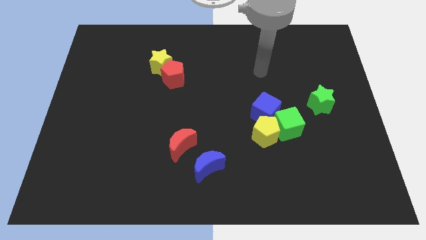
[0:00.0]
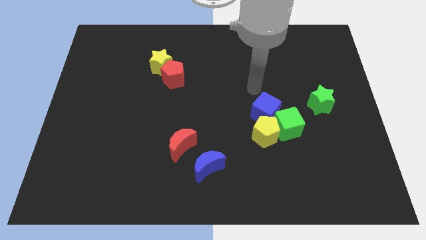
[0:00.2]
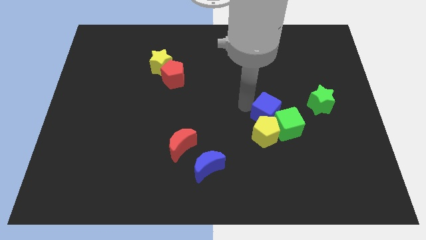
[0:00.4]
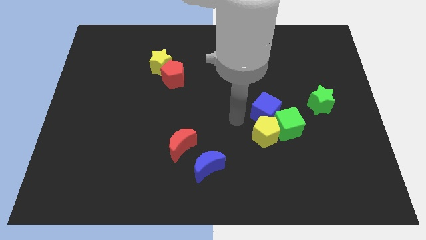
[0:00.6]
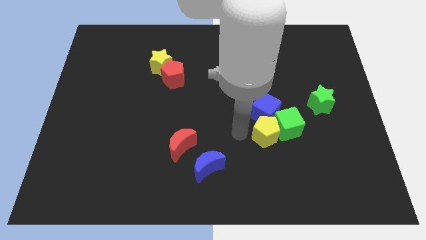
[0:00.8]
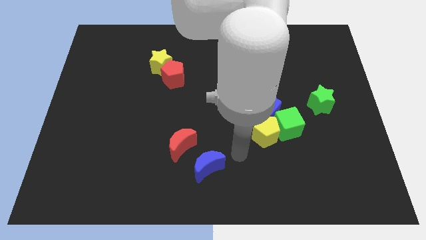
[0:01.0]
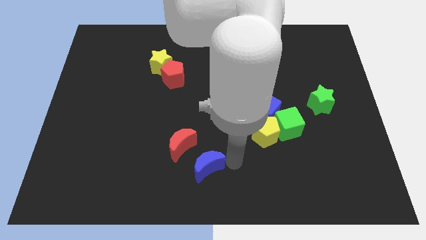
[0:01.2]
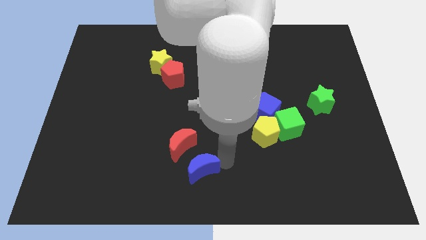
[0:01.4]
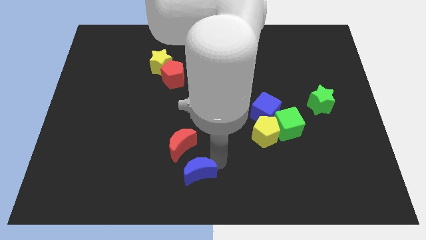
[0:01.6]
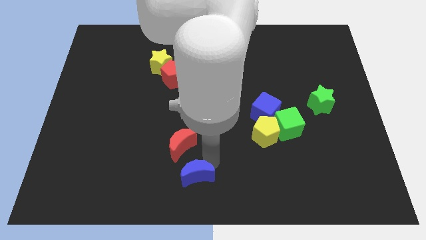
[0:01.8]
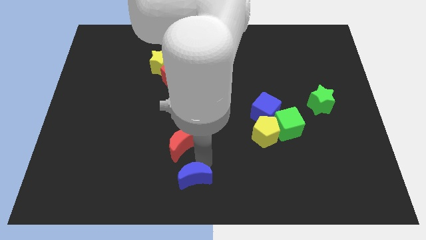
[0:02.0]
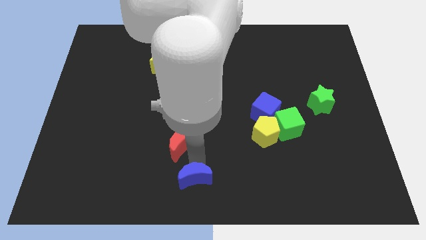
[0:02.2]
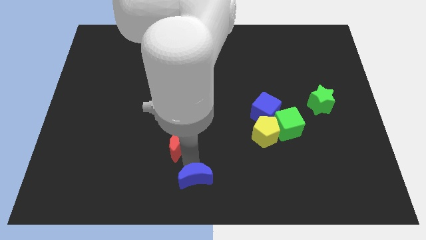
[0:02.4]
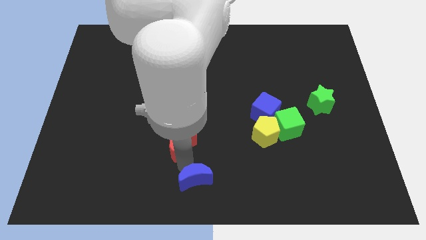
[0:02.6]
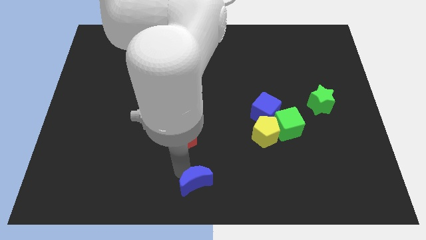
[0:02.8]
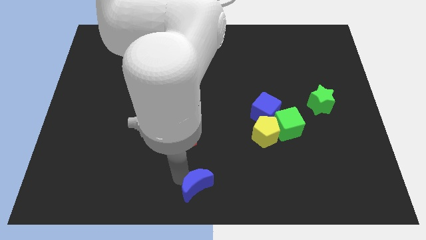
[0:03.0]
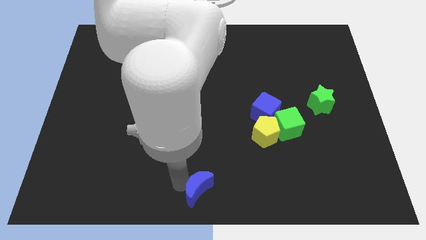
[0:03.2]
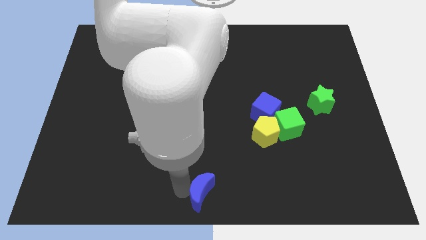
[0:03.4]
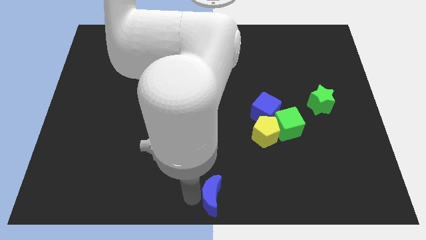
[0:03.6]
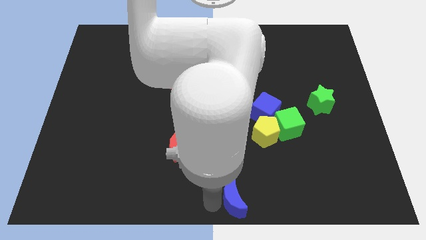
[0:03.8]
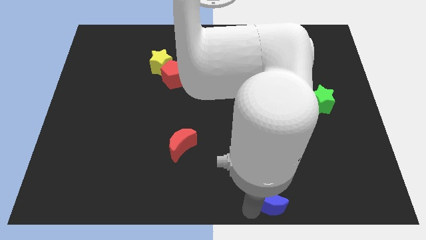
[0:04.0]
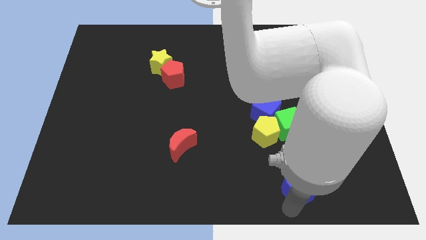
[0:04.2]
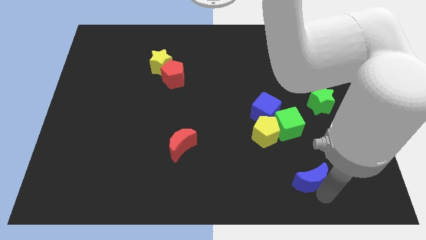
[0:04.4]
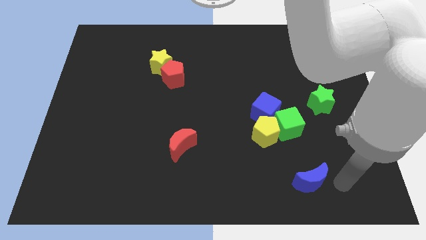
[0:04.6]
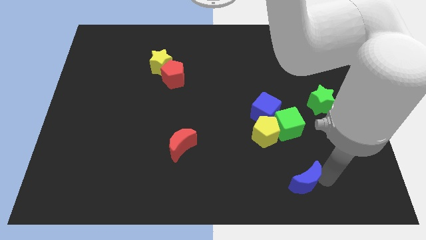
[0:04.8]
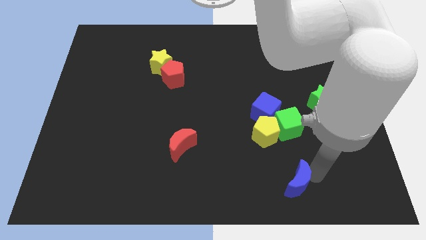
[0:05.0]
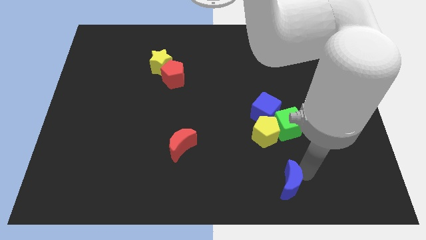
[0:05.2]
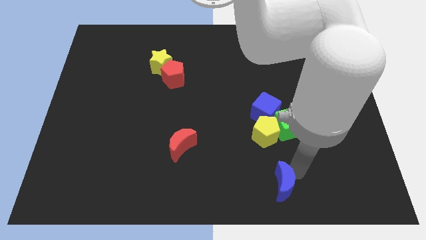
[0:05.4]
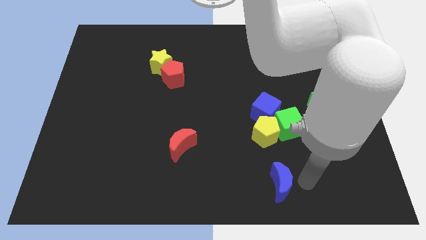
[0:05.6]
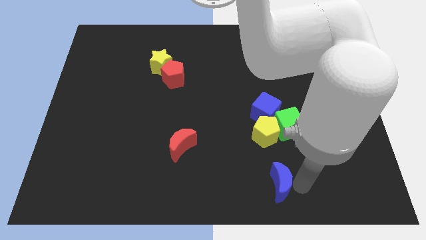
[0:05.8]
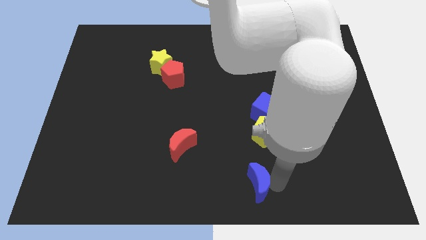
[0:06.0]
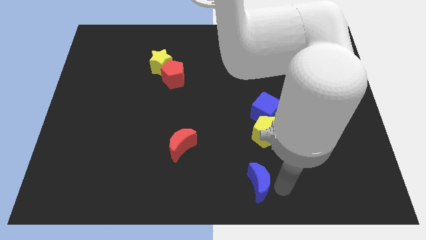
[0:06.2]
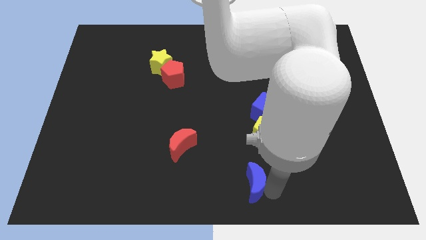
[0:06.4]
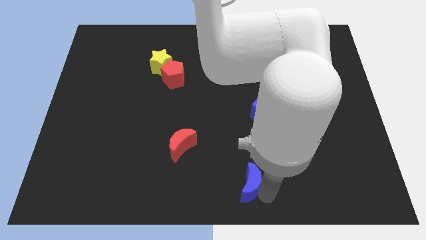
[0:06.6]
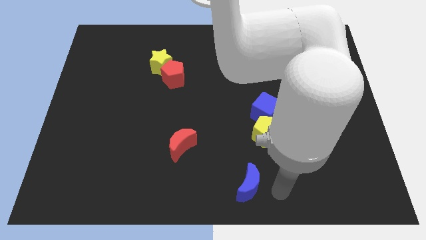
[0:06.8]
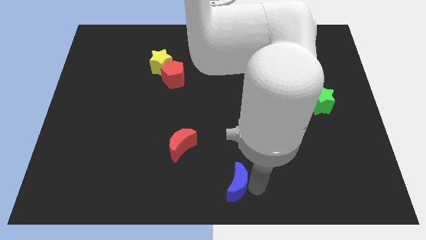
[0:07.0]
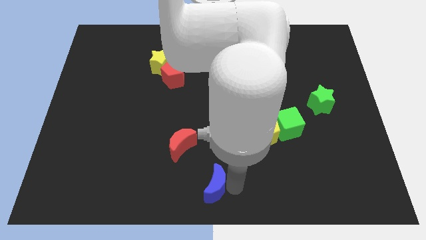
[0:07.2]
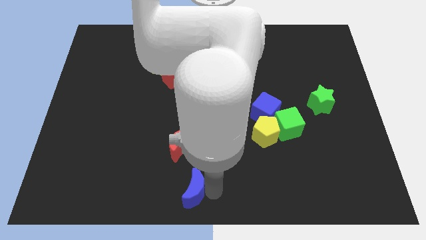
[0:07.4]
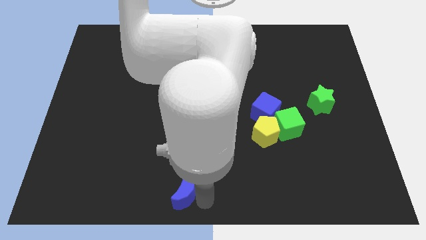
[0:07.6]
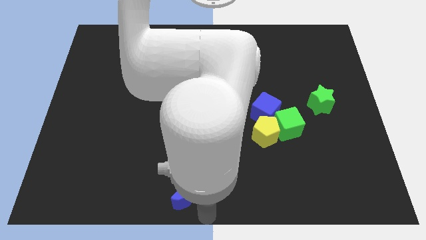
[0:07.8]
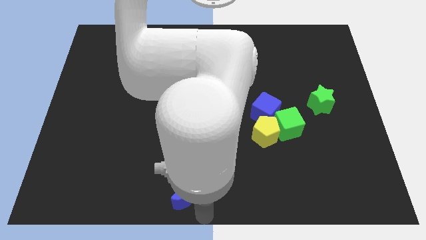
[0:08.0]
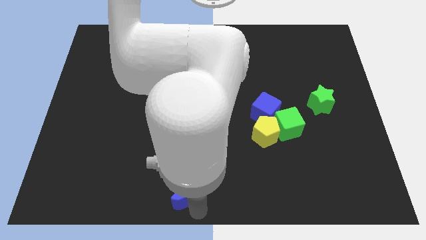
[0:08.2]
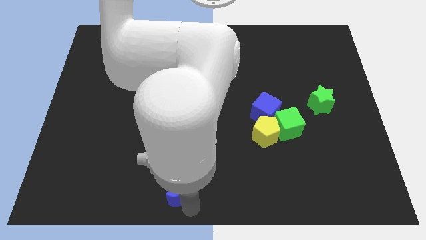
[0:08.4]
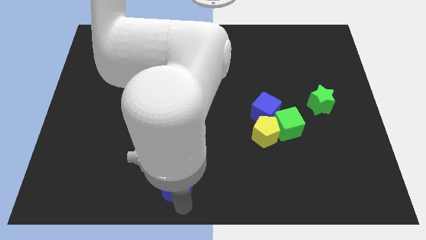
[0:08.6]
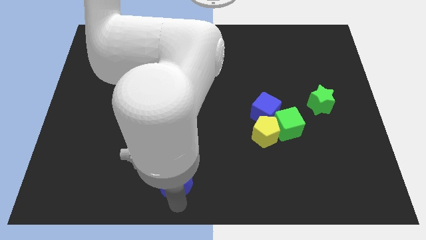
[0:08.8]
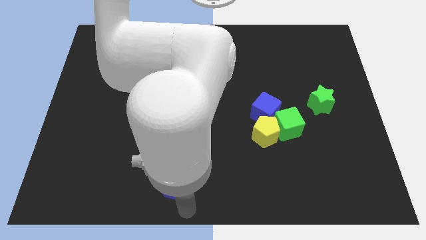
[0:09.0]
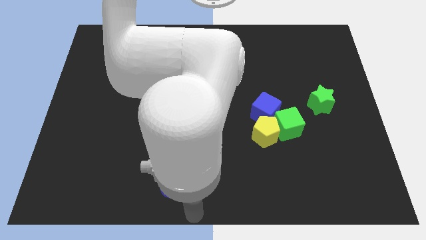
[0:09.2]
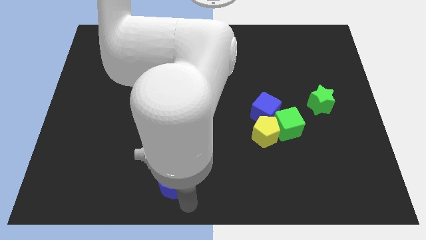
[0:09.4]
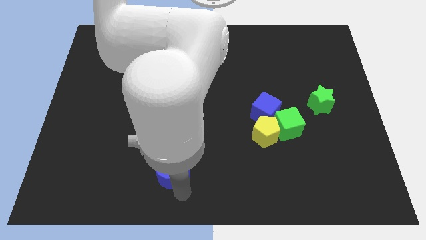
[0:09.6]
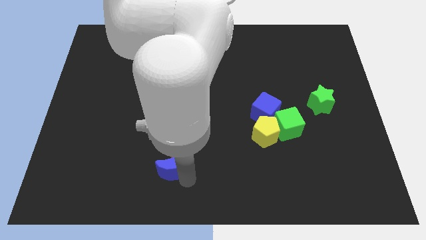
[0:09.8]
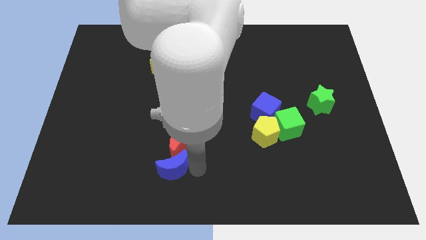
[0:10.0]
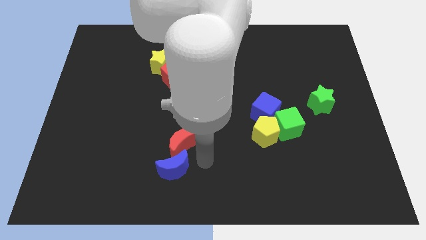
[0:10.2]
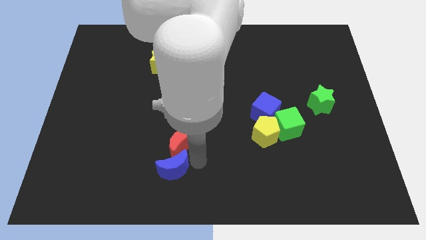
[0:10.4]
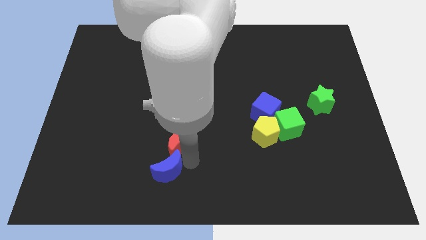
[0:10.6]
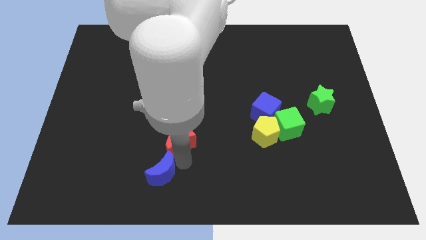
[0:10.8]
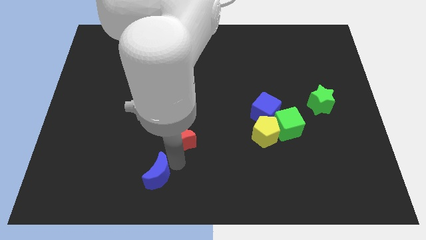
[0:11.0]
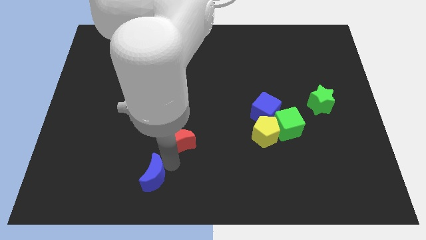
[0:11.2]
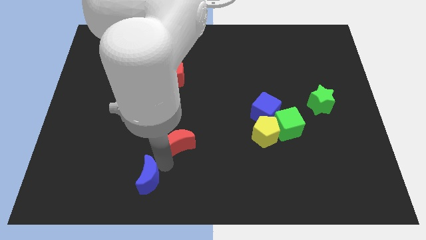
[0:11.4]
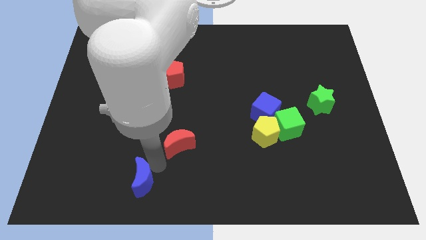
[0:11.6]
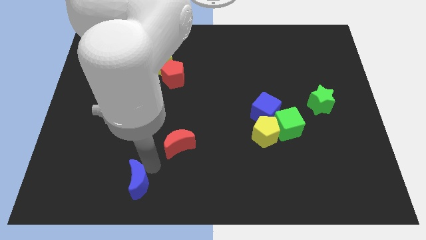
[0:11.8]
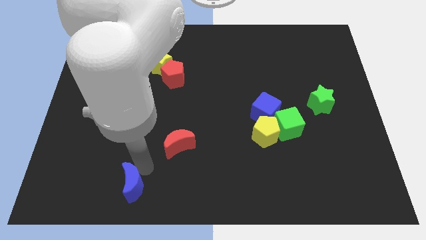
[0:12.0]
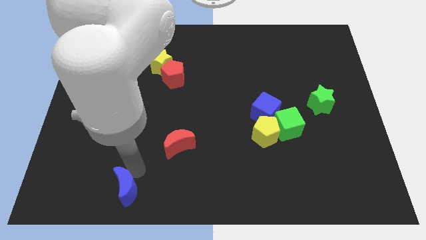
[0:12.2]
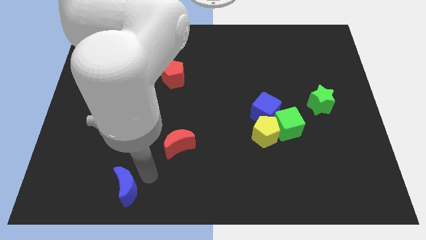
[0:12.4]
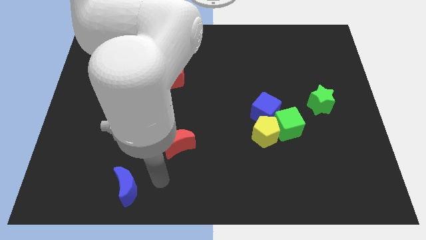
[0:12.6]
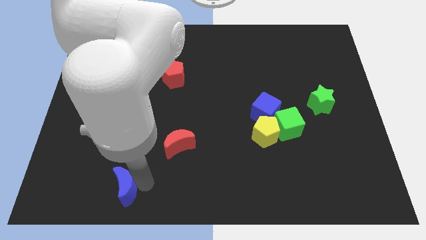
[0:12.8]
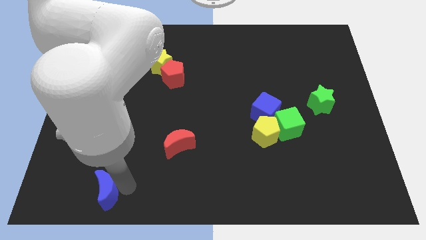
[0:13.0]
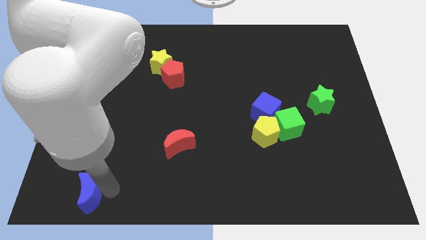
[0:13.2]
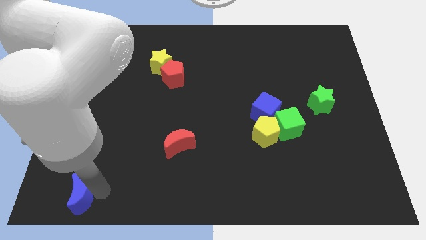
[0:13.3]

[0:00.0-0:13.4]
move the blue moon to the bottom left
